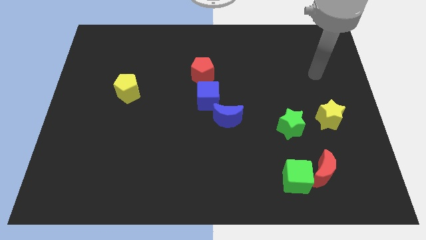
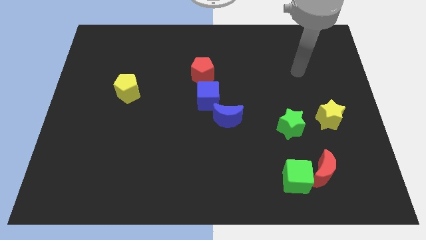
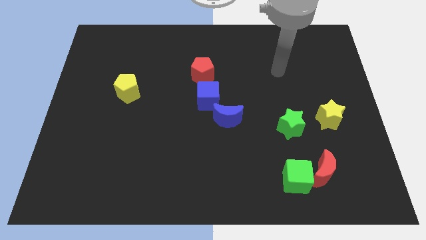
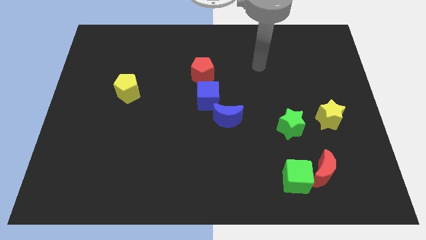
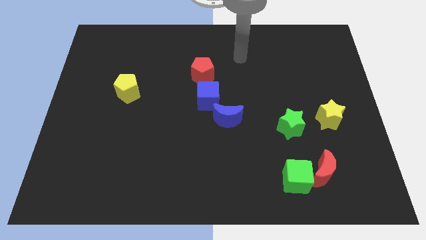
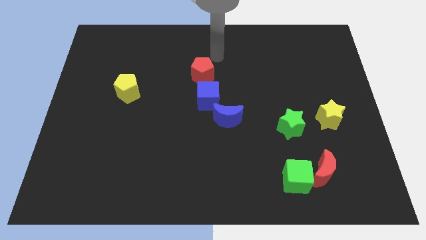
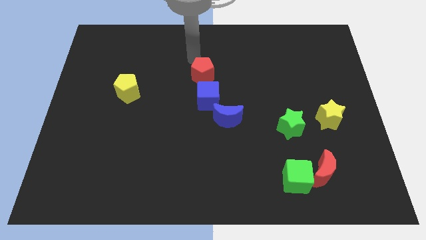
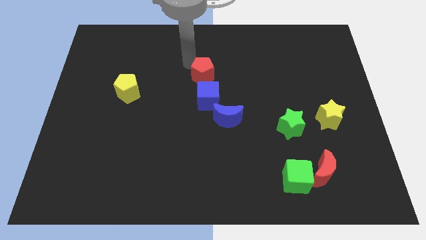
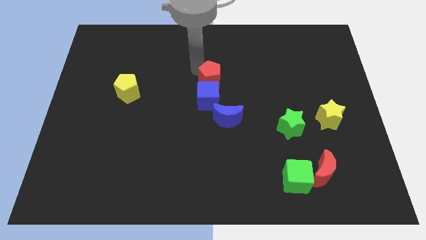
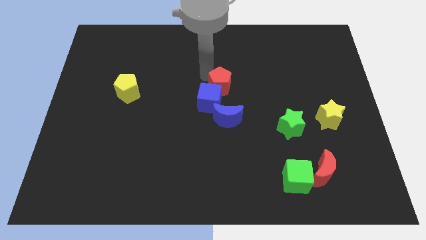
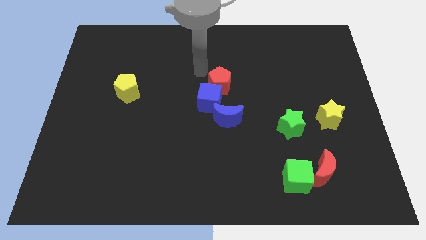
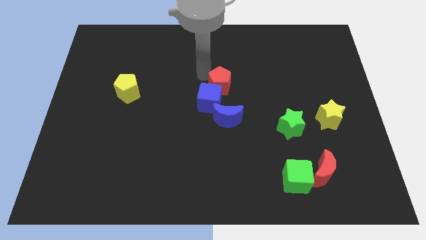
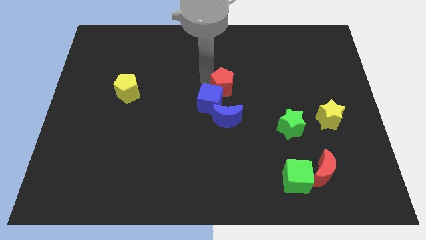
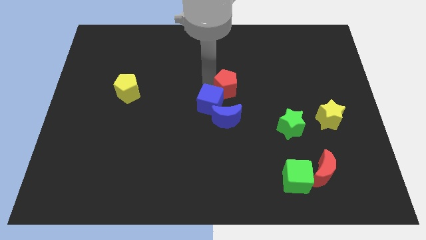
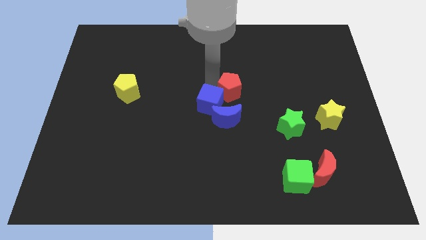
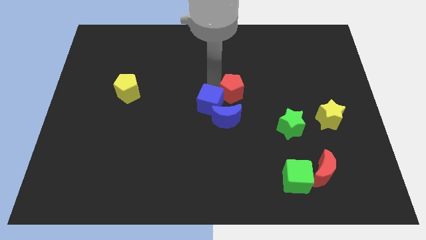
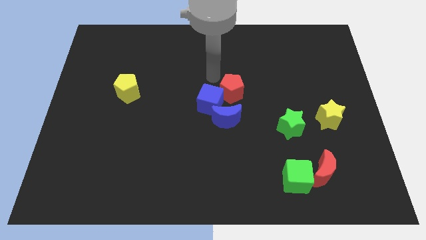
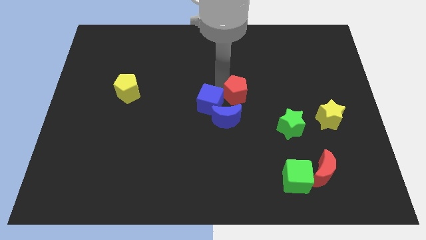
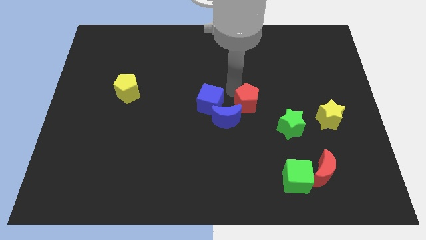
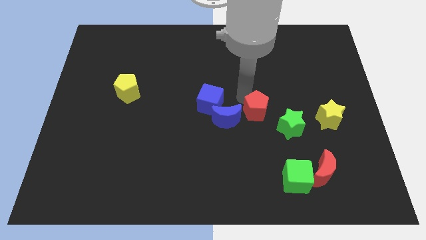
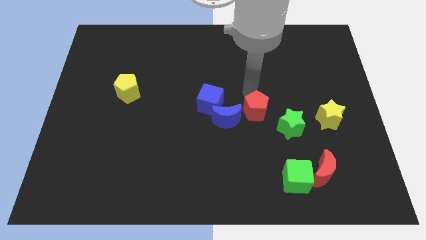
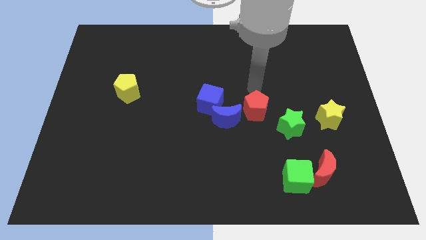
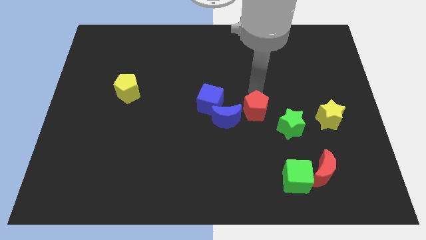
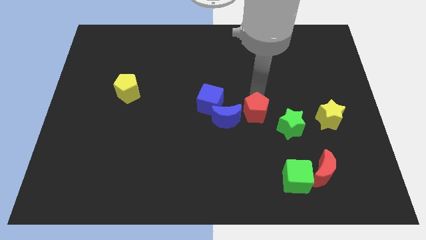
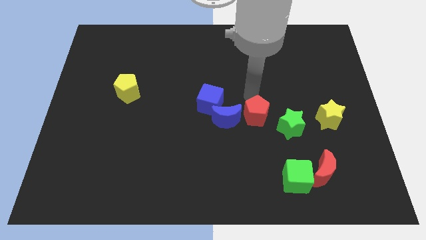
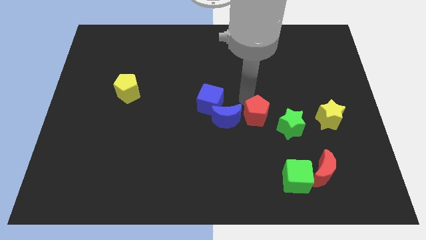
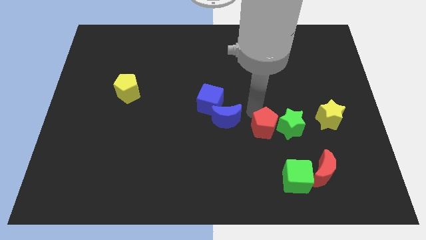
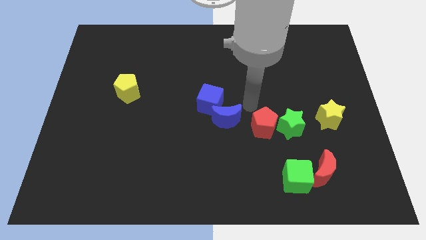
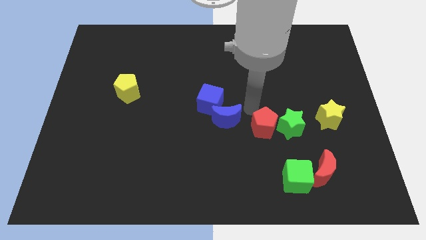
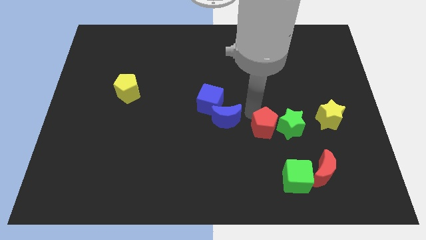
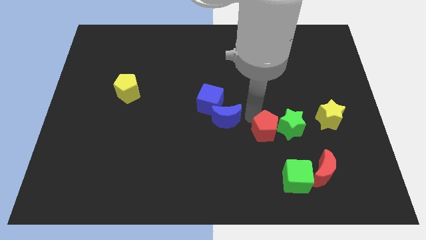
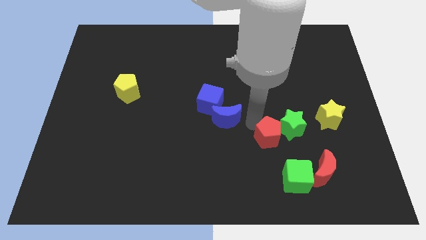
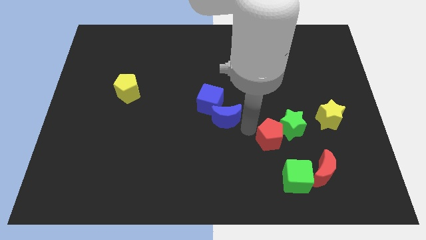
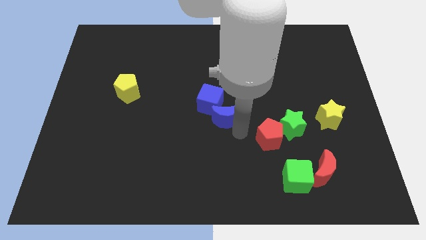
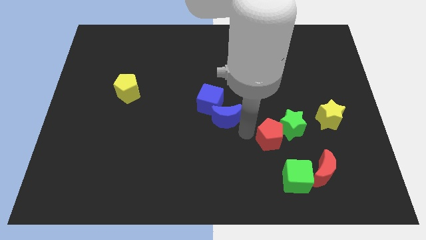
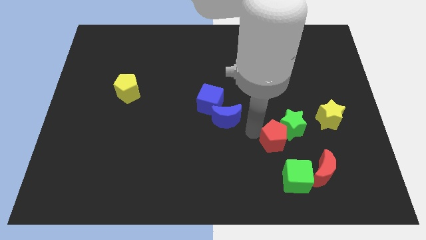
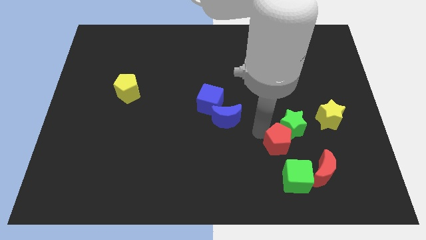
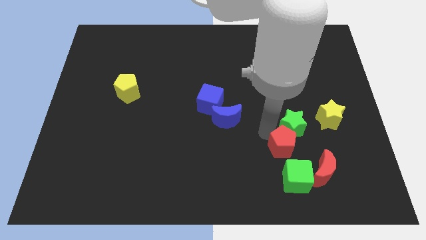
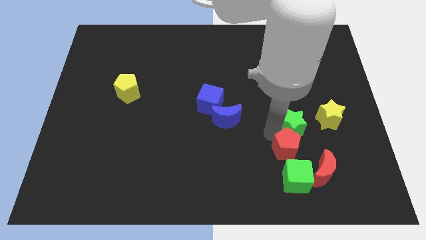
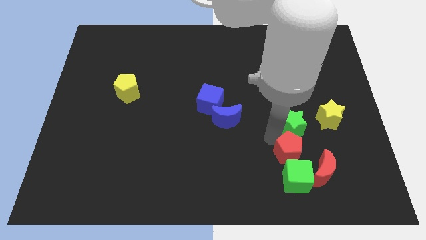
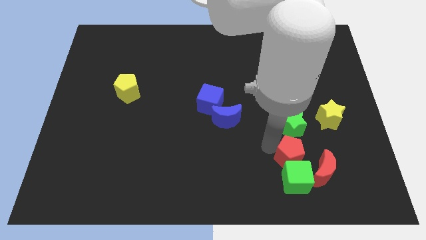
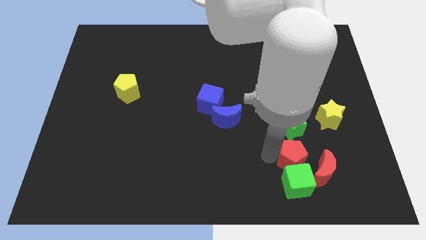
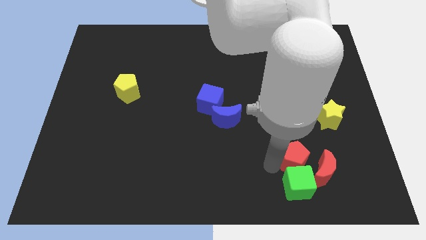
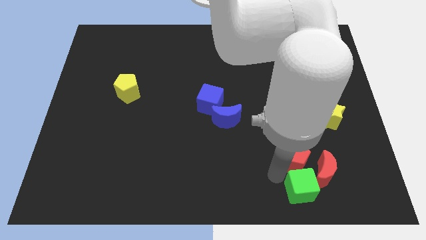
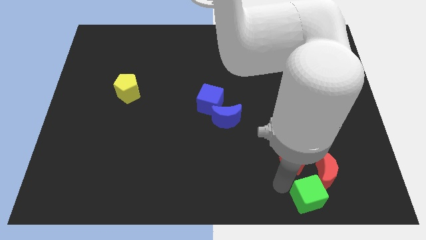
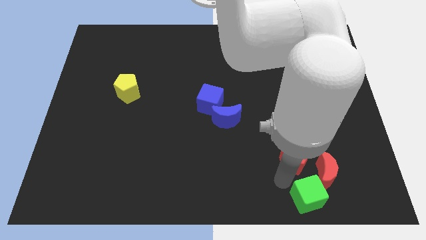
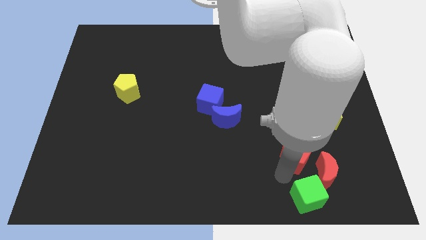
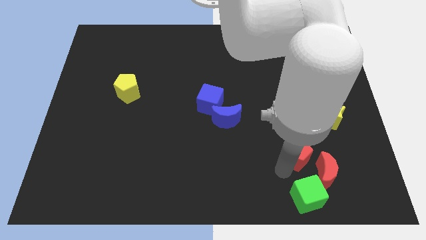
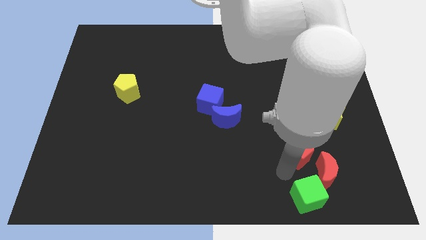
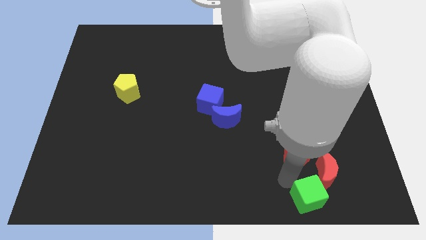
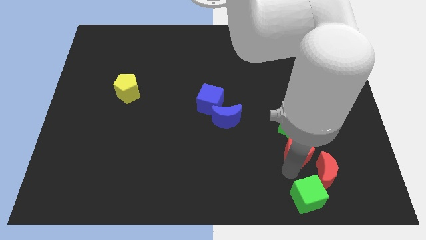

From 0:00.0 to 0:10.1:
move the red pentagon to the bottom right side of the green star

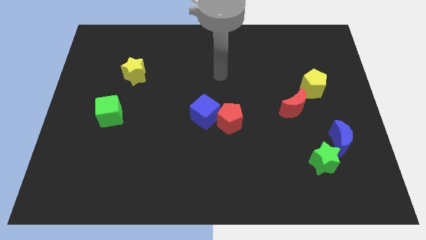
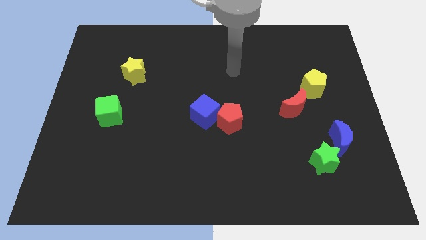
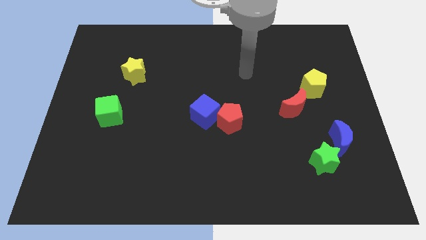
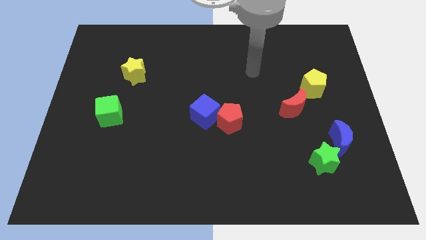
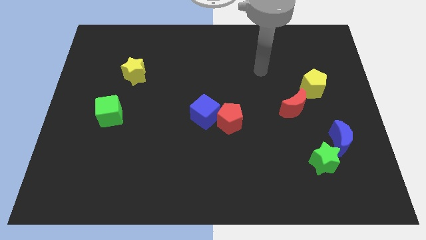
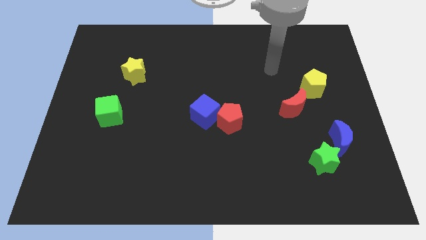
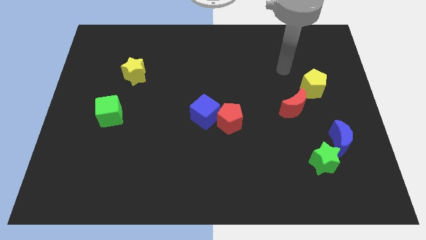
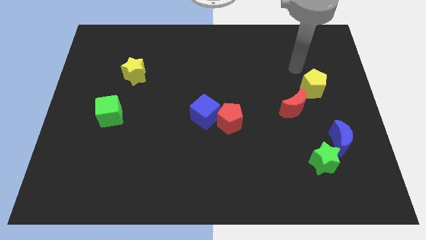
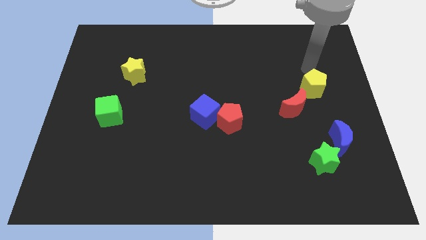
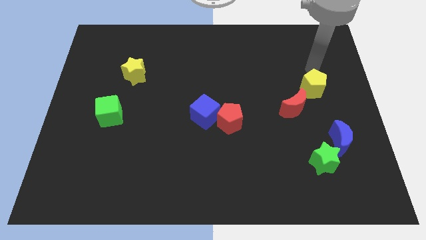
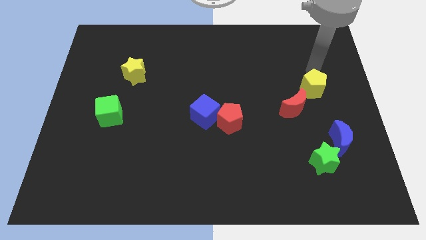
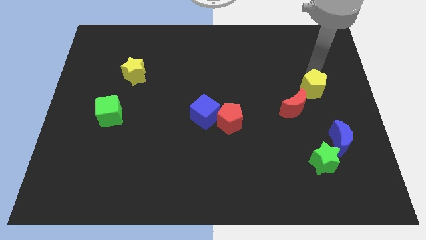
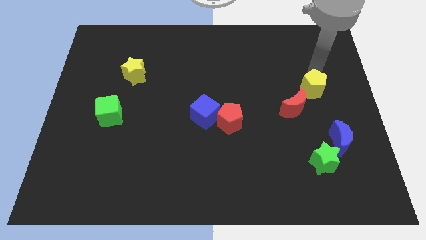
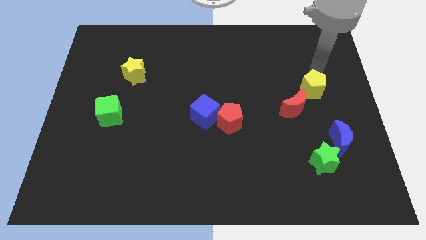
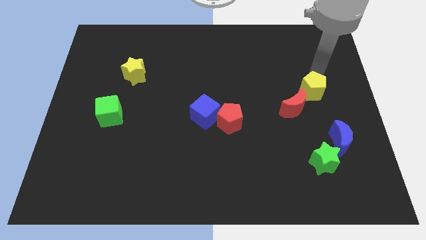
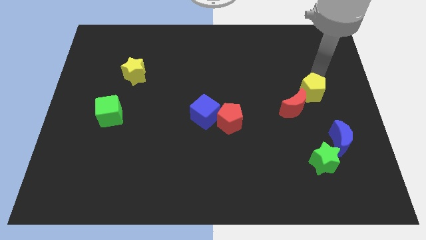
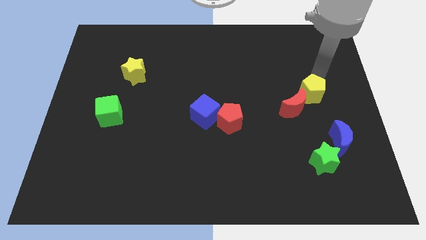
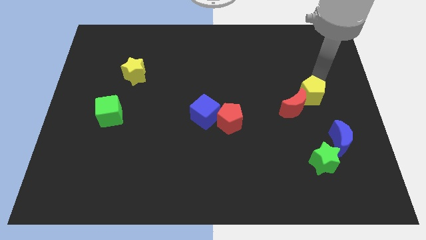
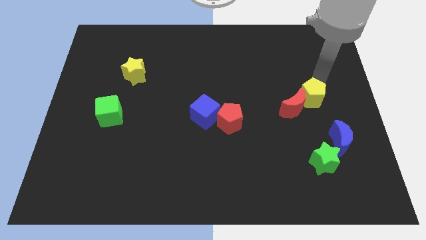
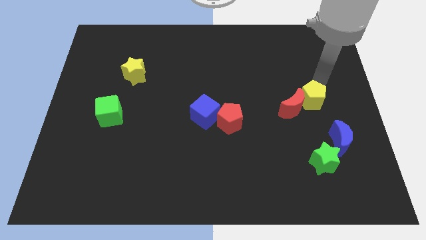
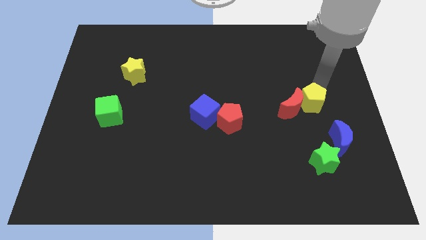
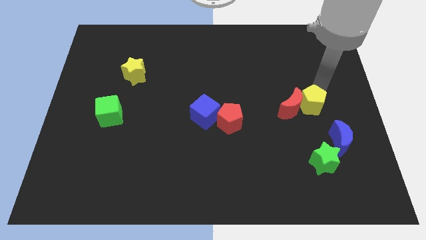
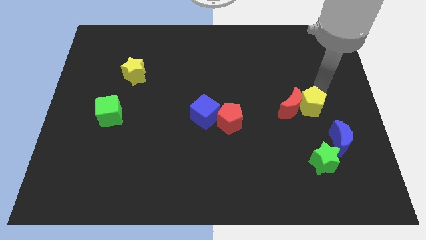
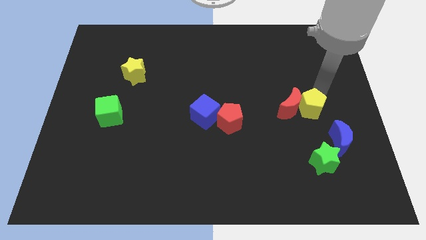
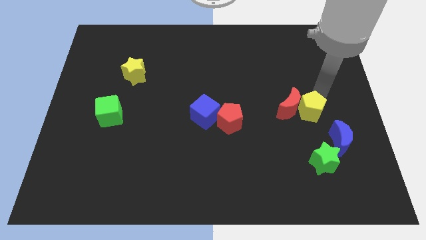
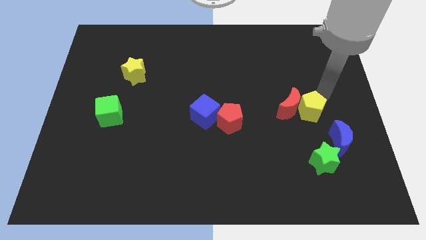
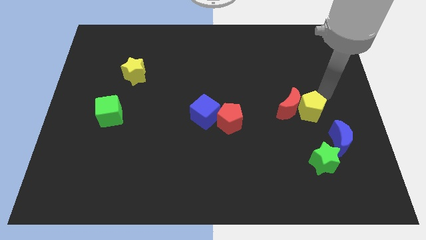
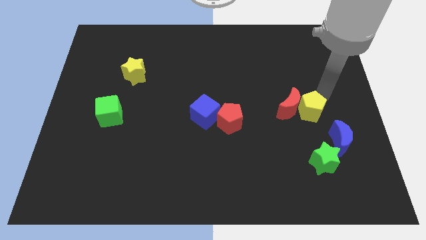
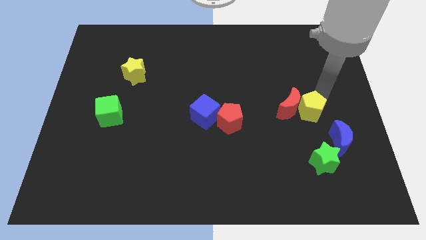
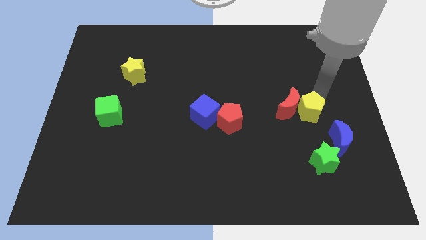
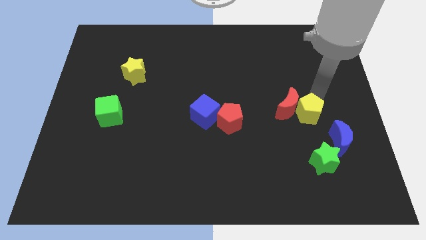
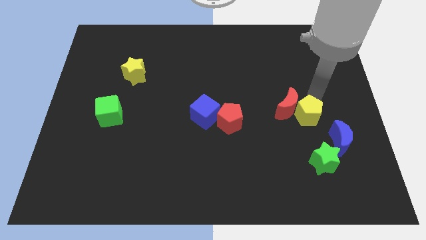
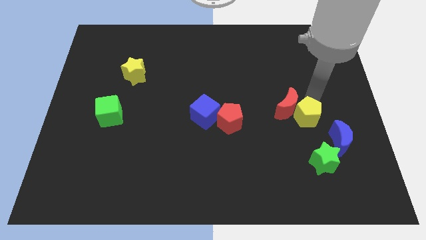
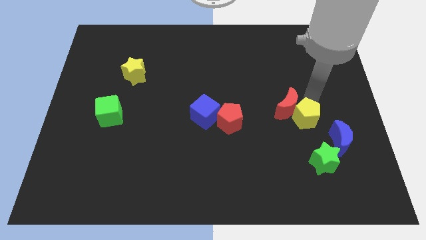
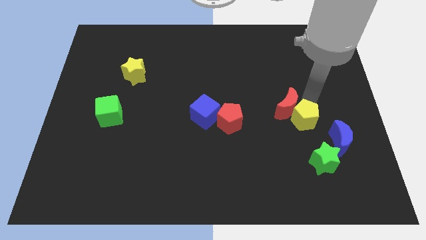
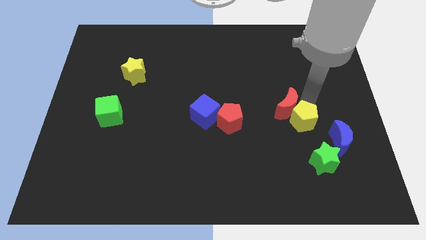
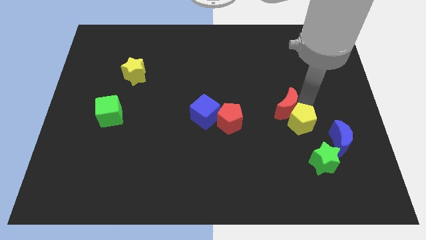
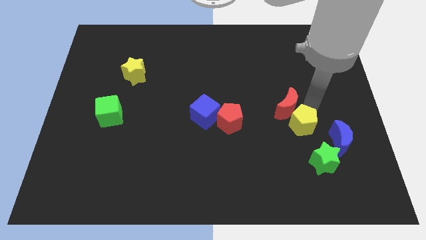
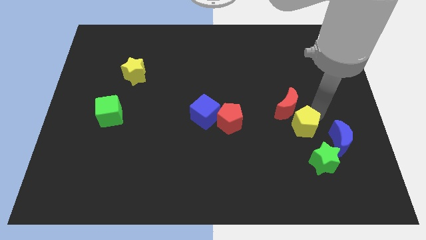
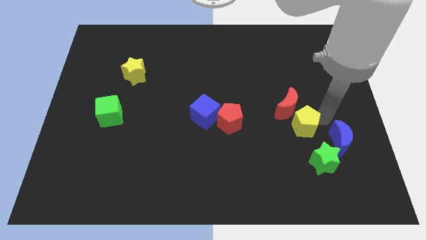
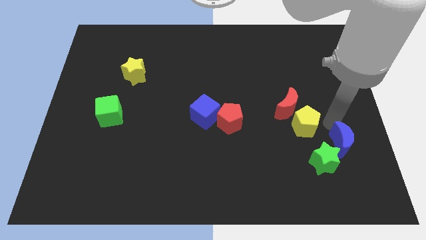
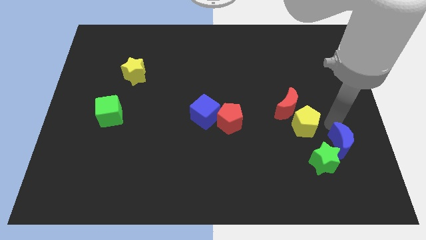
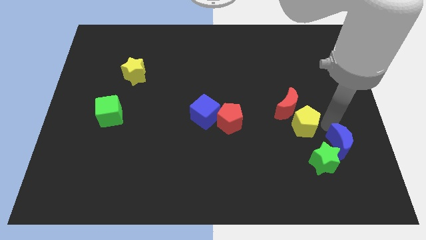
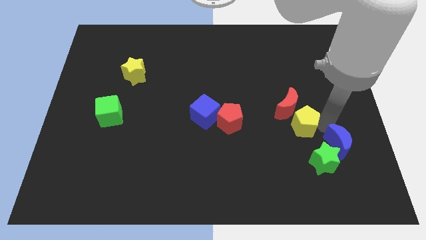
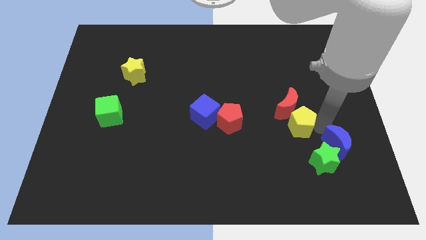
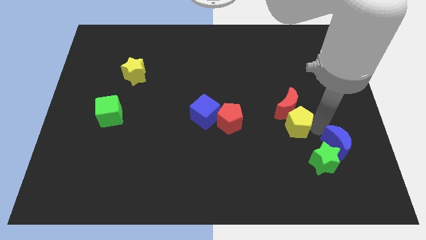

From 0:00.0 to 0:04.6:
slide the yellow pentagon diagonally down and to the left of the red moon
